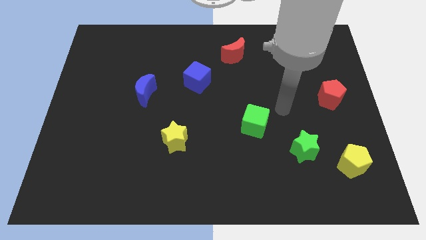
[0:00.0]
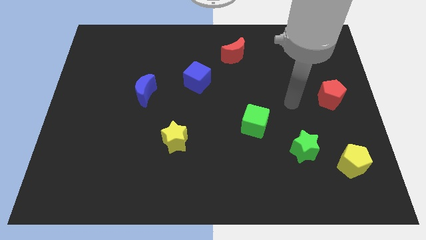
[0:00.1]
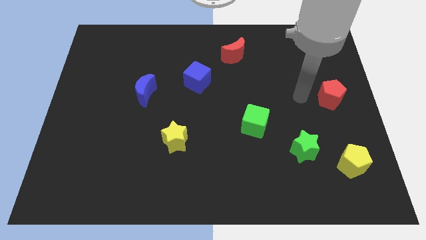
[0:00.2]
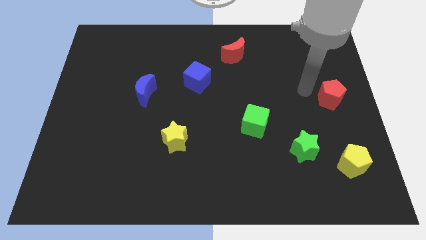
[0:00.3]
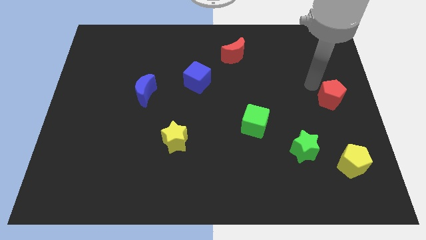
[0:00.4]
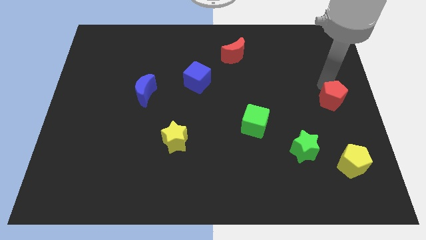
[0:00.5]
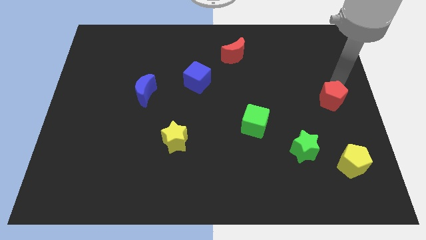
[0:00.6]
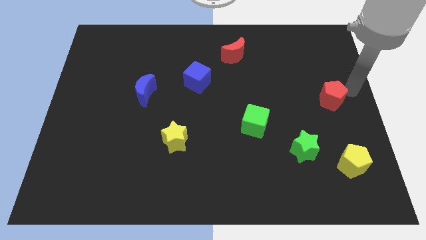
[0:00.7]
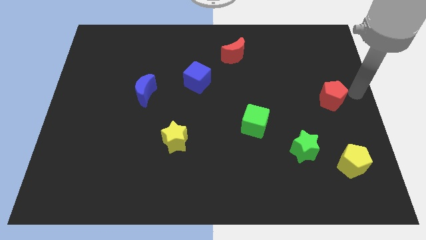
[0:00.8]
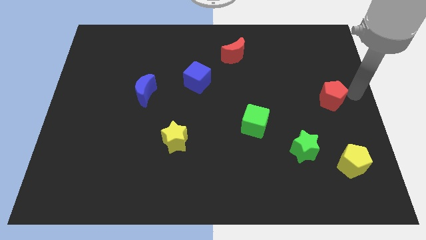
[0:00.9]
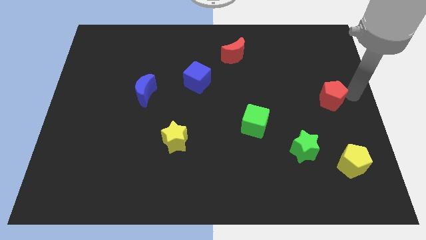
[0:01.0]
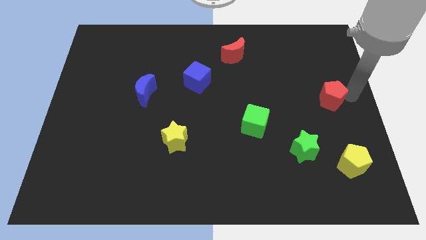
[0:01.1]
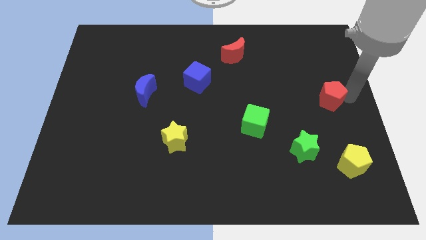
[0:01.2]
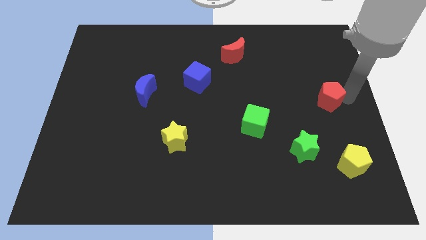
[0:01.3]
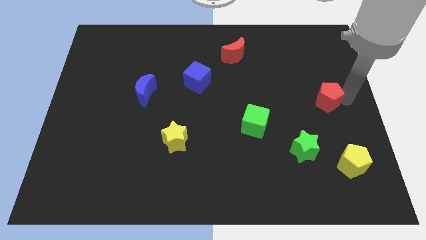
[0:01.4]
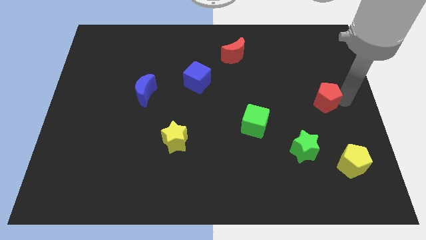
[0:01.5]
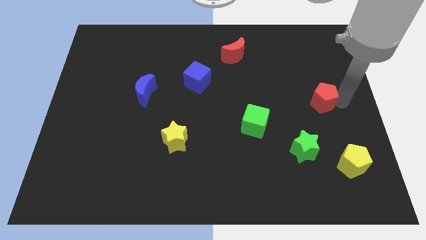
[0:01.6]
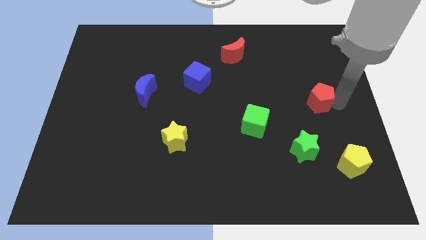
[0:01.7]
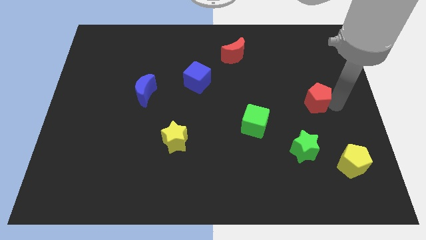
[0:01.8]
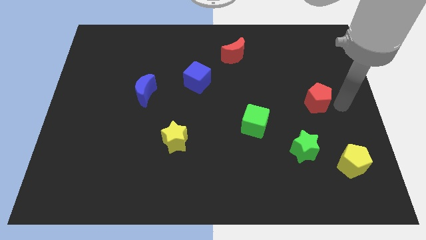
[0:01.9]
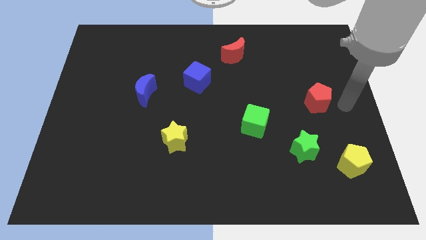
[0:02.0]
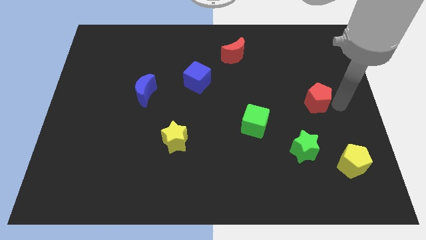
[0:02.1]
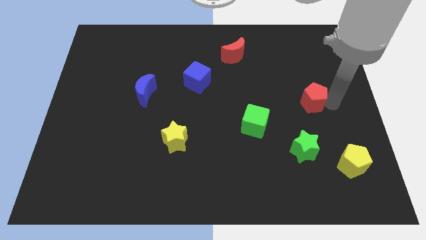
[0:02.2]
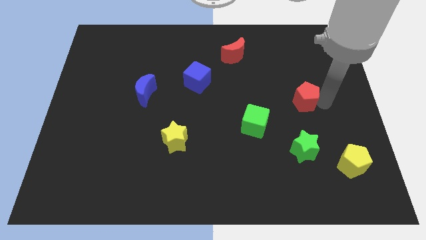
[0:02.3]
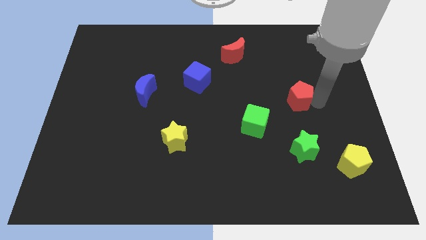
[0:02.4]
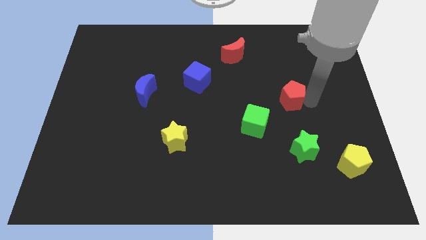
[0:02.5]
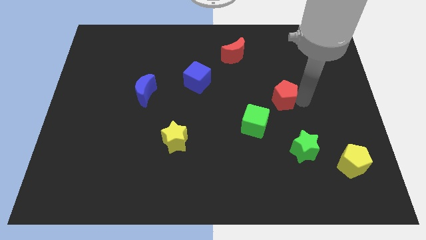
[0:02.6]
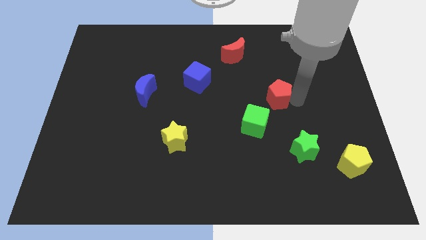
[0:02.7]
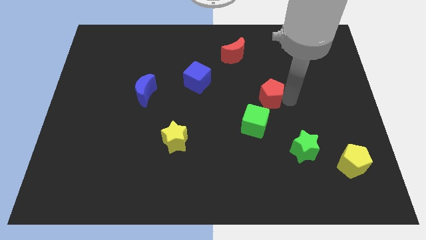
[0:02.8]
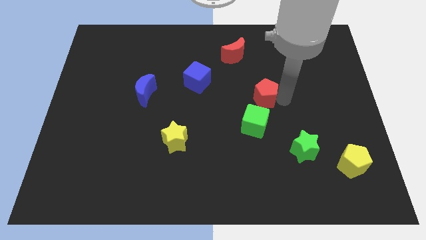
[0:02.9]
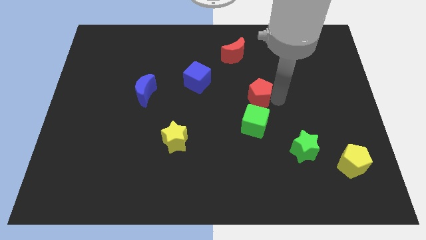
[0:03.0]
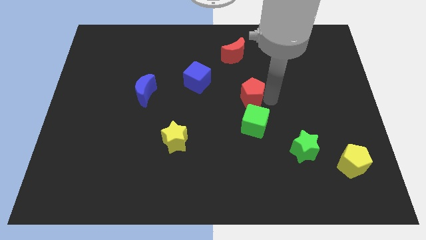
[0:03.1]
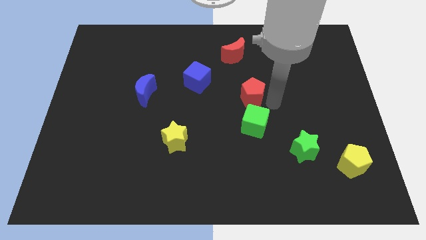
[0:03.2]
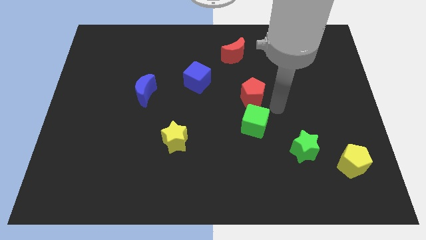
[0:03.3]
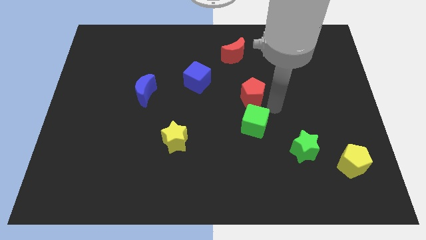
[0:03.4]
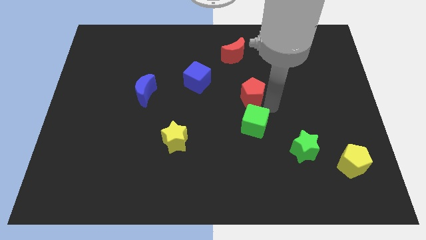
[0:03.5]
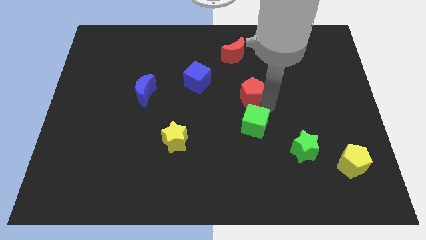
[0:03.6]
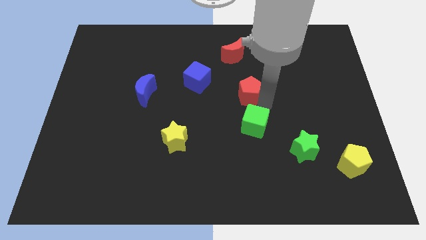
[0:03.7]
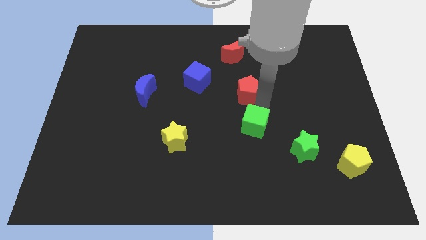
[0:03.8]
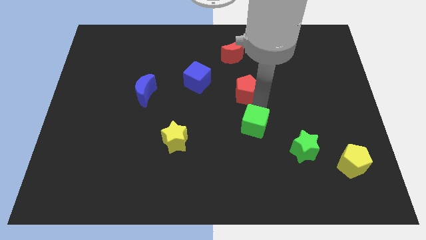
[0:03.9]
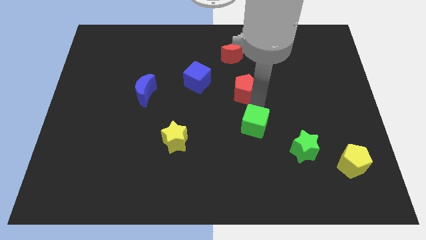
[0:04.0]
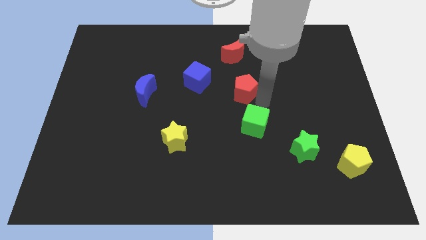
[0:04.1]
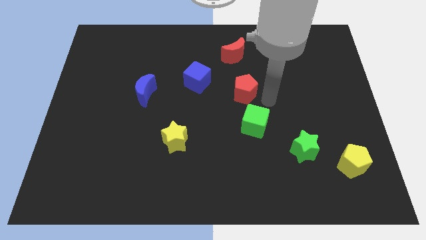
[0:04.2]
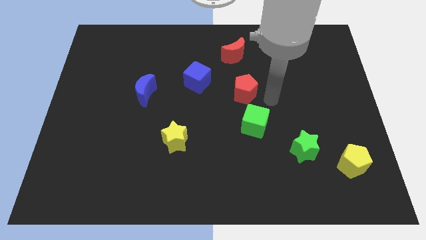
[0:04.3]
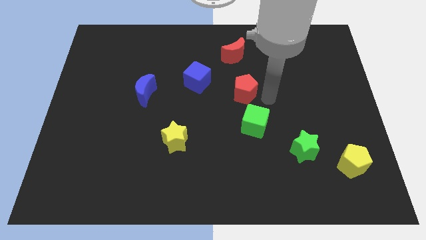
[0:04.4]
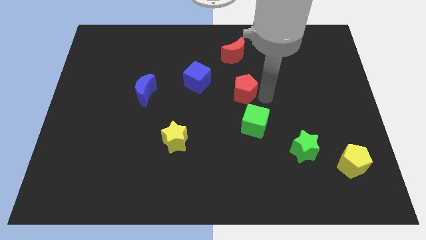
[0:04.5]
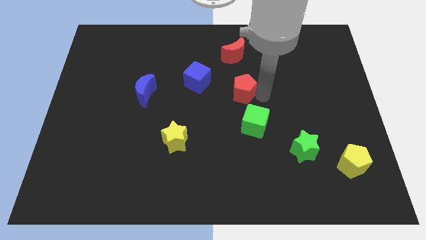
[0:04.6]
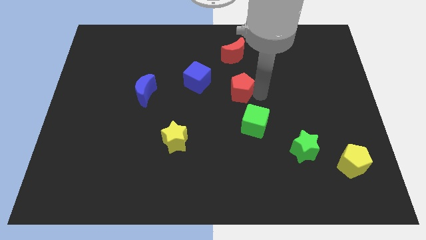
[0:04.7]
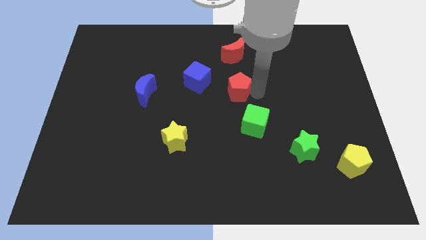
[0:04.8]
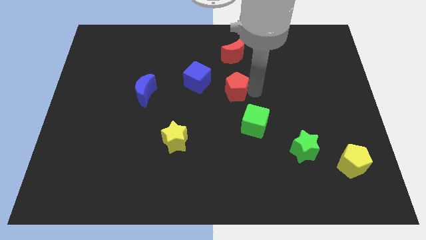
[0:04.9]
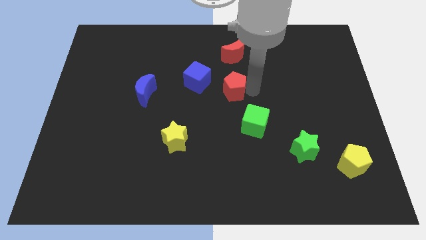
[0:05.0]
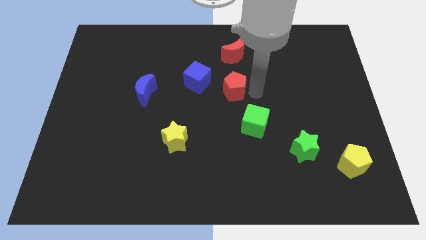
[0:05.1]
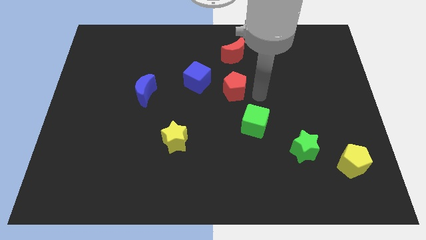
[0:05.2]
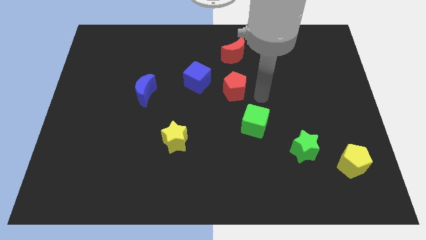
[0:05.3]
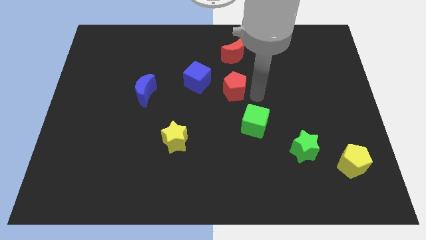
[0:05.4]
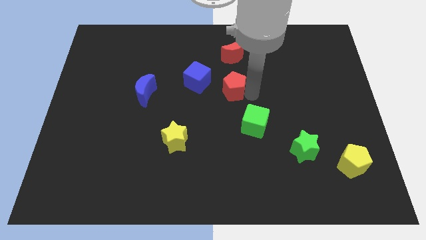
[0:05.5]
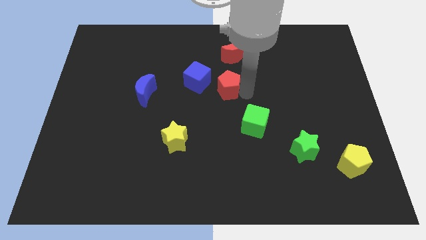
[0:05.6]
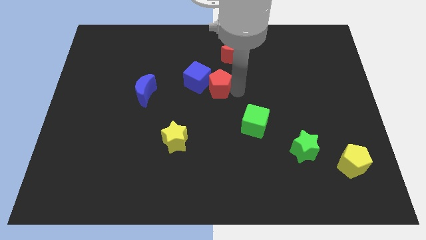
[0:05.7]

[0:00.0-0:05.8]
slide the red pentagon close to the blue cube

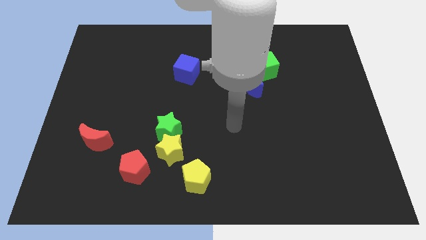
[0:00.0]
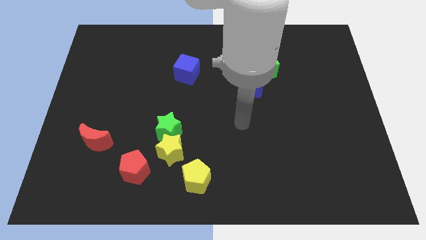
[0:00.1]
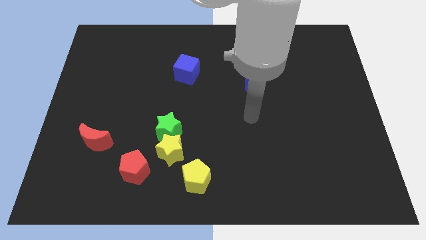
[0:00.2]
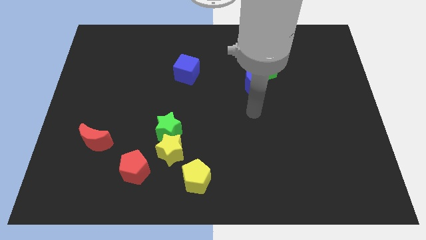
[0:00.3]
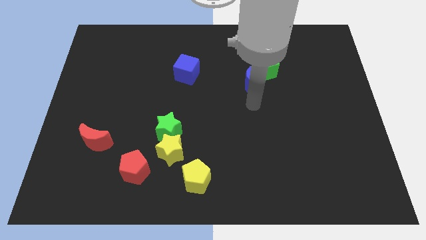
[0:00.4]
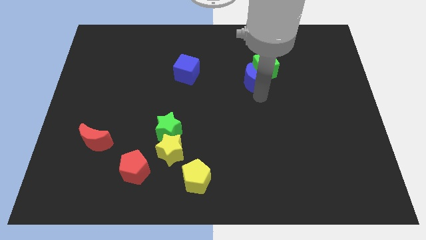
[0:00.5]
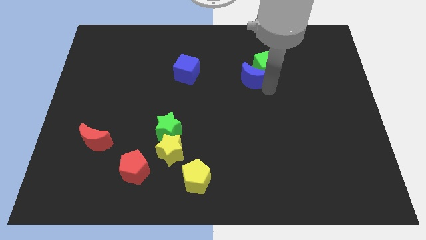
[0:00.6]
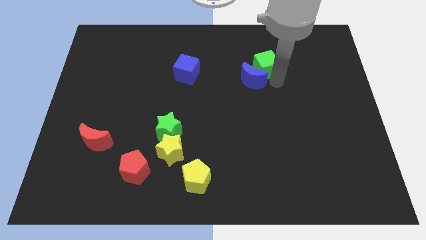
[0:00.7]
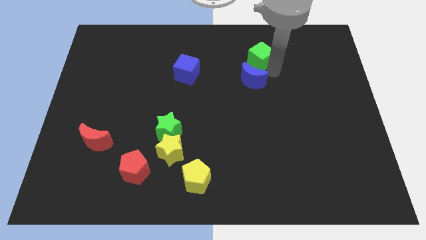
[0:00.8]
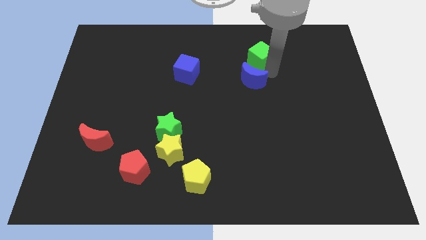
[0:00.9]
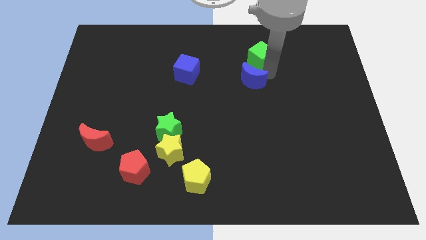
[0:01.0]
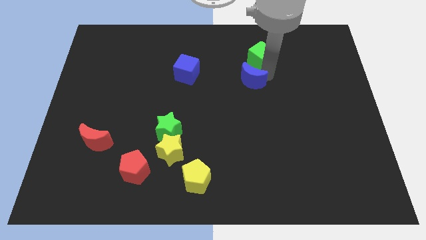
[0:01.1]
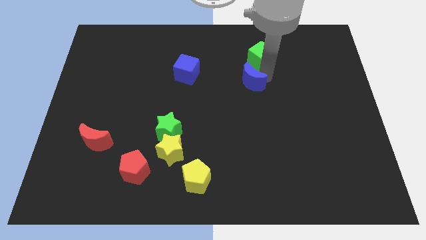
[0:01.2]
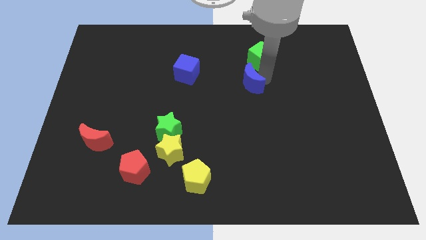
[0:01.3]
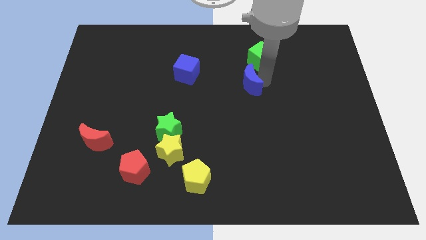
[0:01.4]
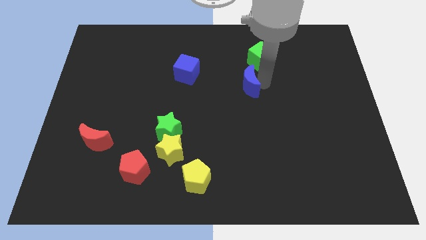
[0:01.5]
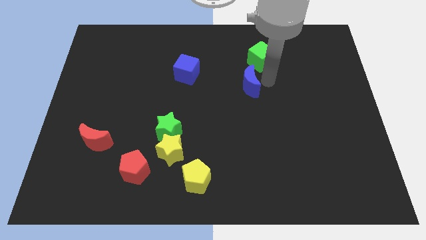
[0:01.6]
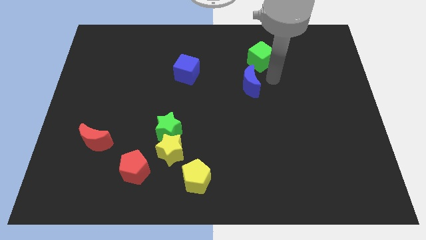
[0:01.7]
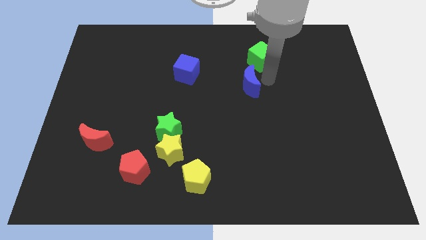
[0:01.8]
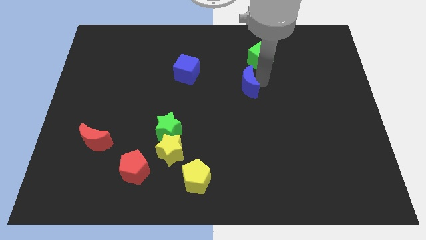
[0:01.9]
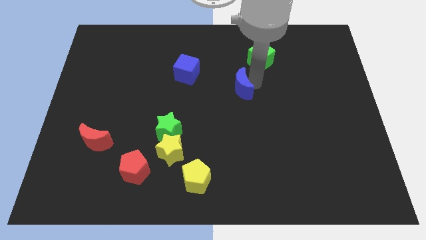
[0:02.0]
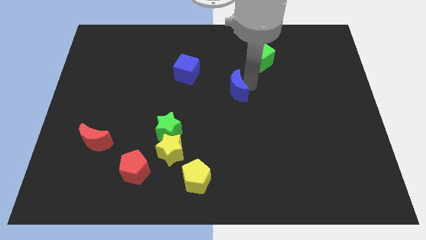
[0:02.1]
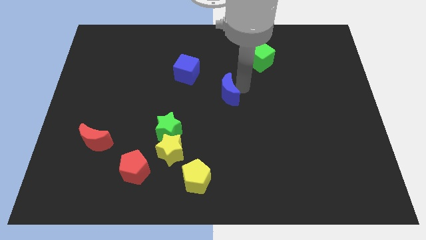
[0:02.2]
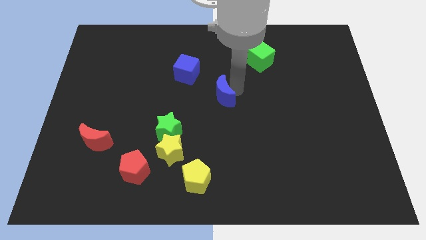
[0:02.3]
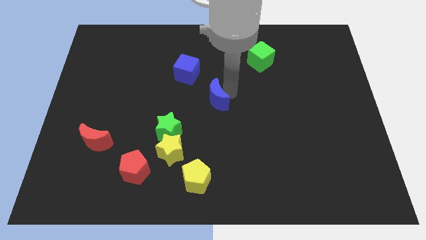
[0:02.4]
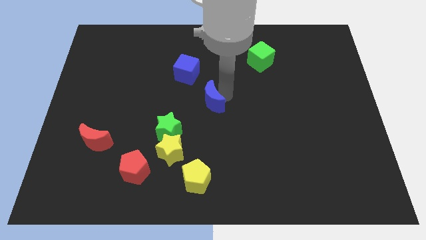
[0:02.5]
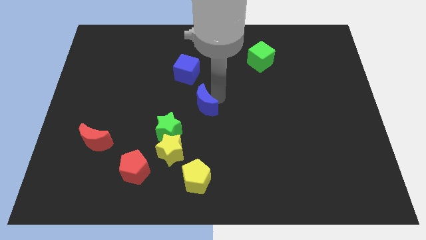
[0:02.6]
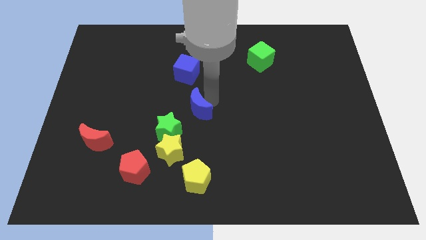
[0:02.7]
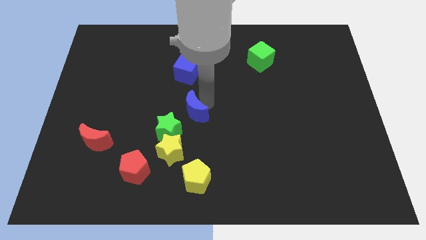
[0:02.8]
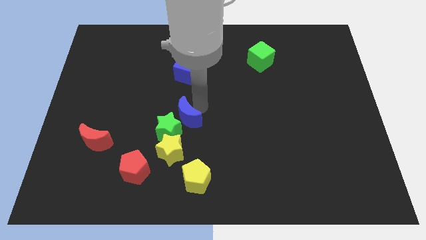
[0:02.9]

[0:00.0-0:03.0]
put the blue moon to the green star
